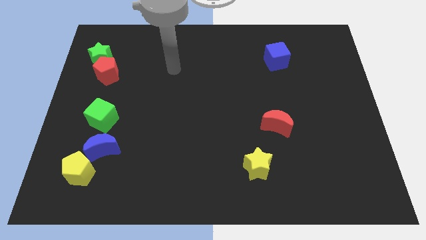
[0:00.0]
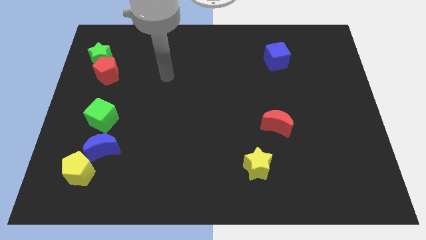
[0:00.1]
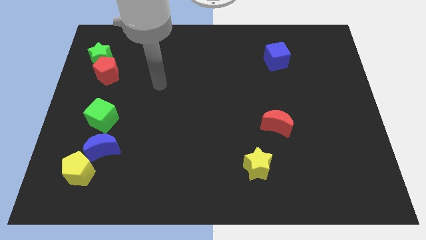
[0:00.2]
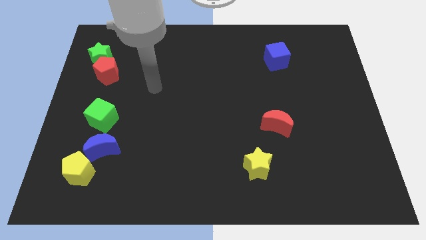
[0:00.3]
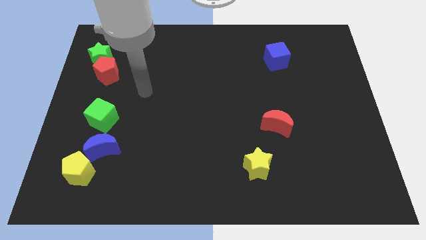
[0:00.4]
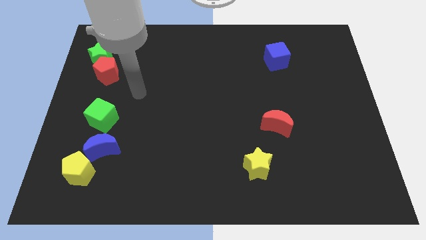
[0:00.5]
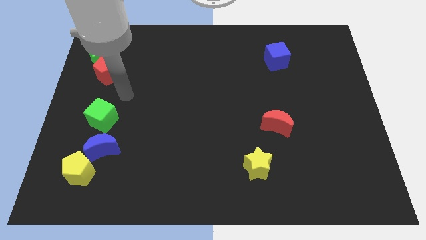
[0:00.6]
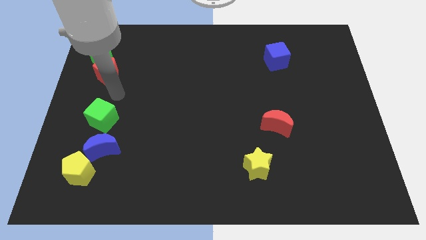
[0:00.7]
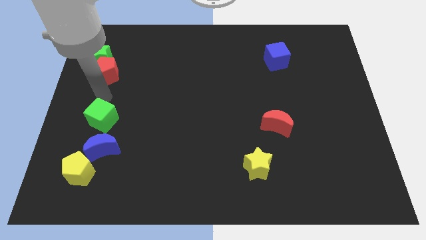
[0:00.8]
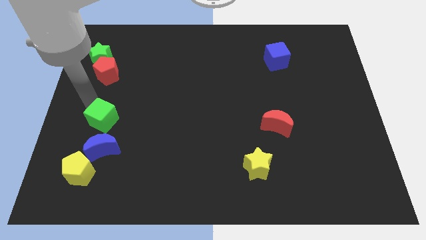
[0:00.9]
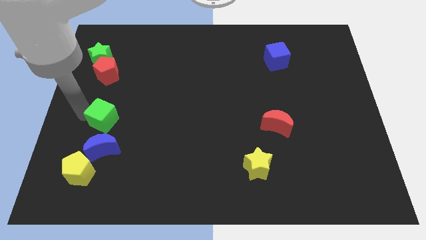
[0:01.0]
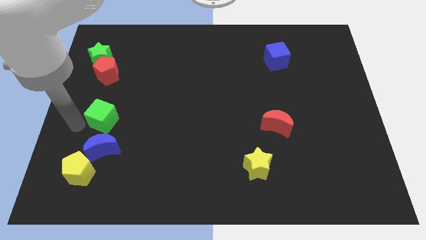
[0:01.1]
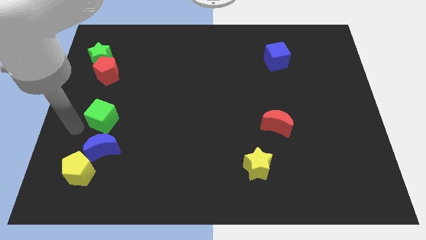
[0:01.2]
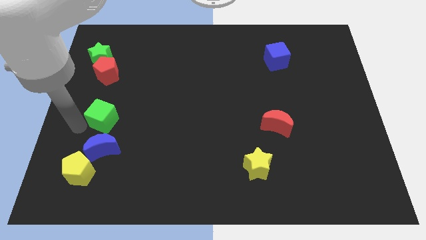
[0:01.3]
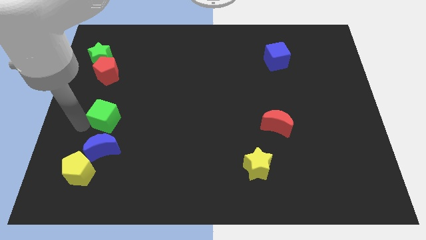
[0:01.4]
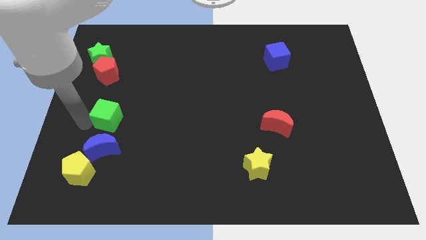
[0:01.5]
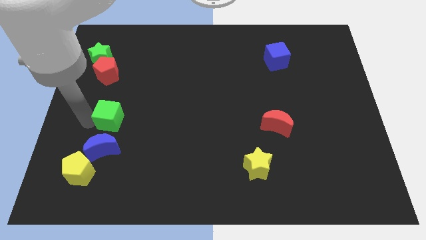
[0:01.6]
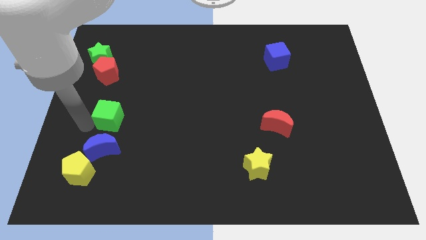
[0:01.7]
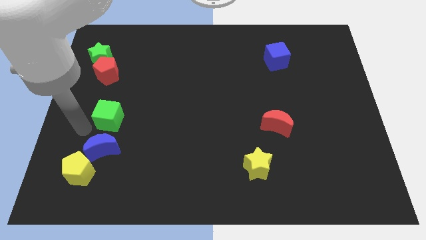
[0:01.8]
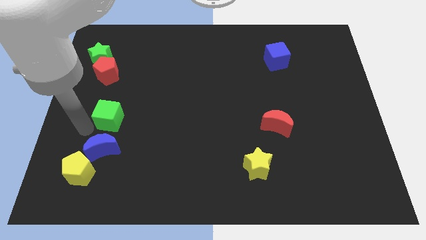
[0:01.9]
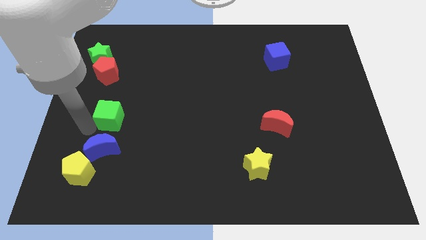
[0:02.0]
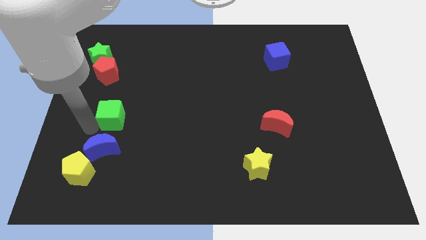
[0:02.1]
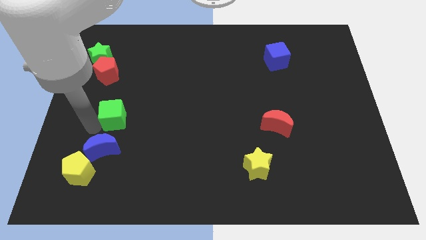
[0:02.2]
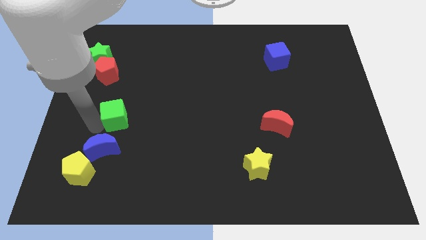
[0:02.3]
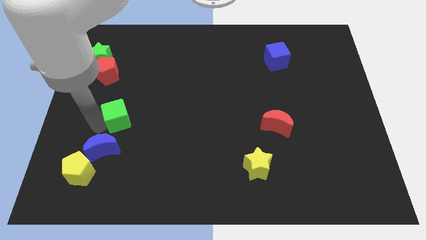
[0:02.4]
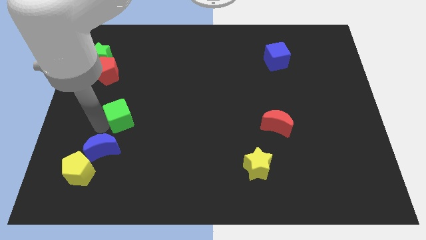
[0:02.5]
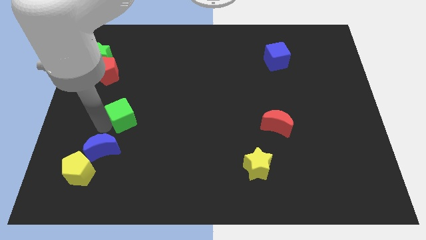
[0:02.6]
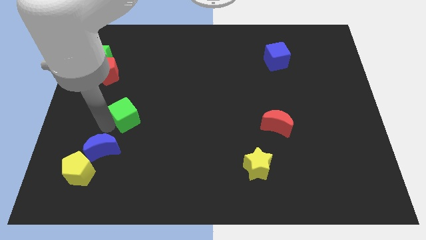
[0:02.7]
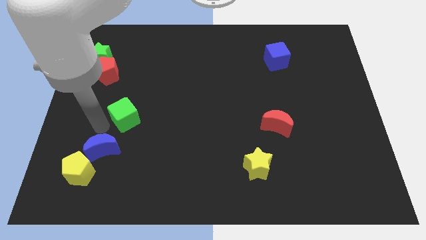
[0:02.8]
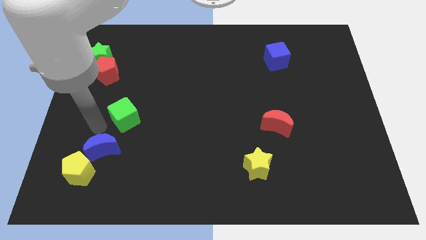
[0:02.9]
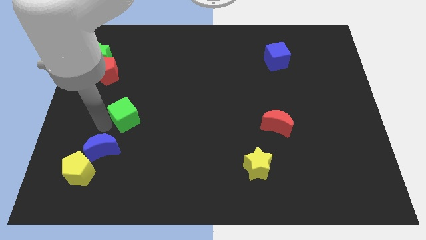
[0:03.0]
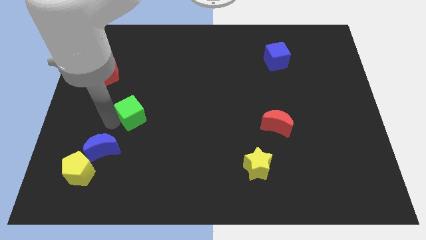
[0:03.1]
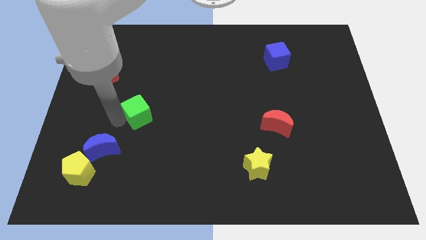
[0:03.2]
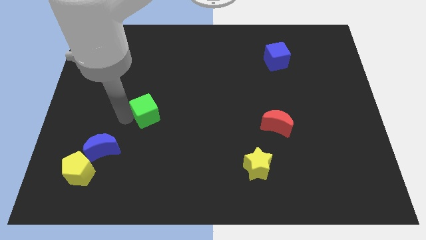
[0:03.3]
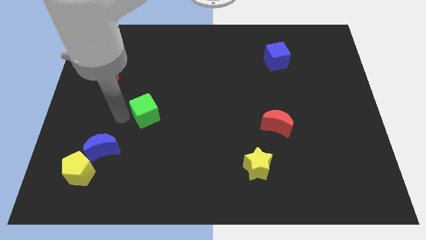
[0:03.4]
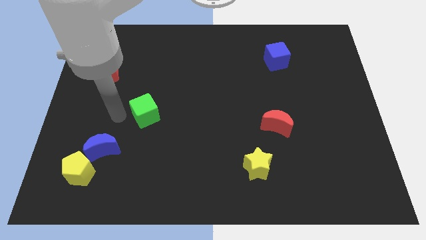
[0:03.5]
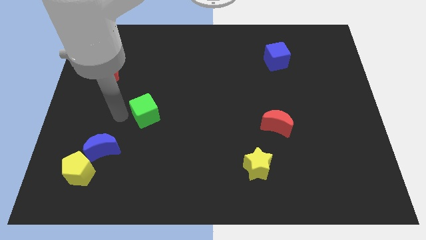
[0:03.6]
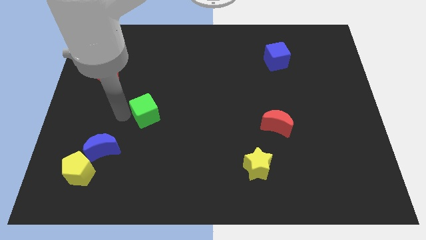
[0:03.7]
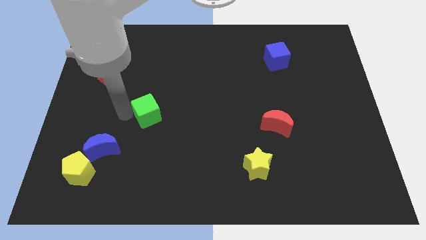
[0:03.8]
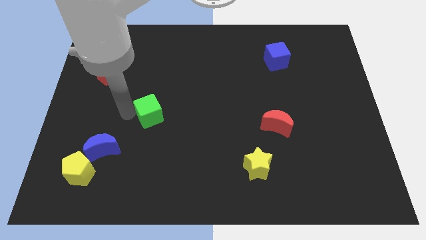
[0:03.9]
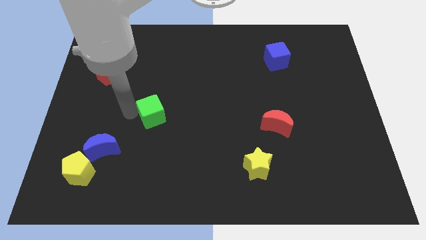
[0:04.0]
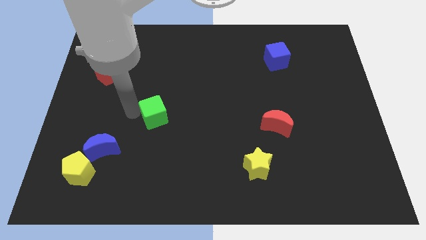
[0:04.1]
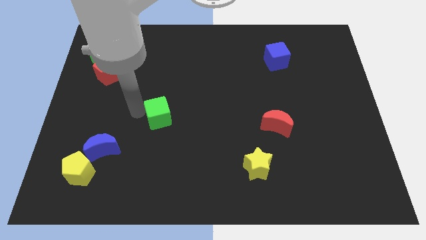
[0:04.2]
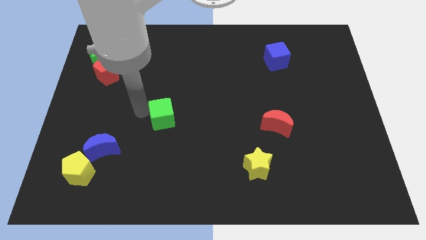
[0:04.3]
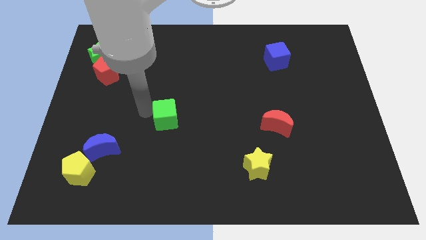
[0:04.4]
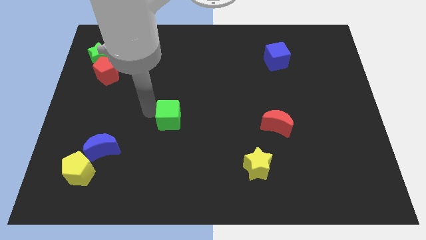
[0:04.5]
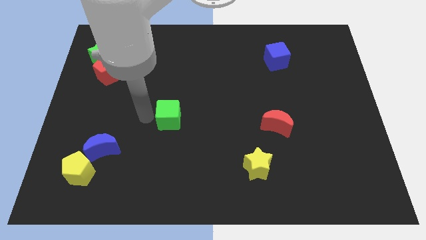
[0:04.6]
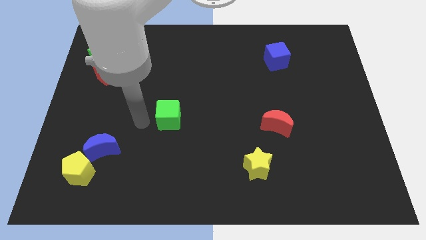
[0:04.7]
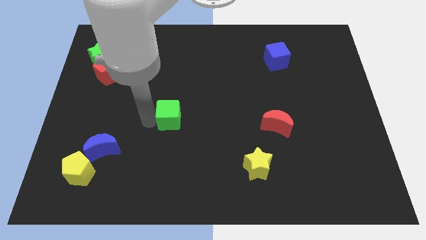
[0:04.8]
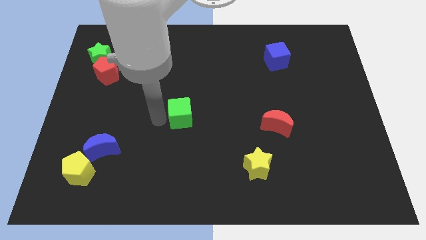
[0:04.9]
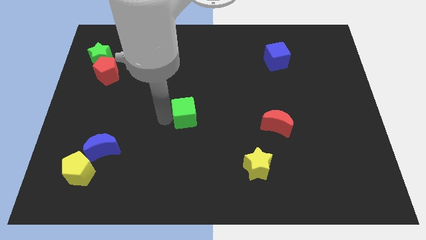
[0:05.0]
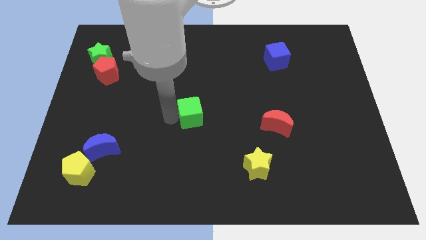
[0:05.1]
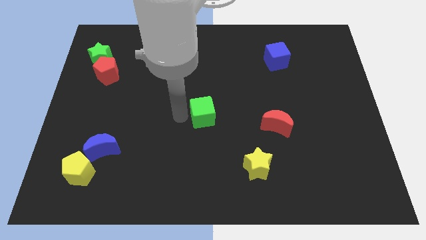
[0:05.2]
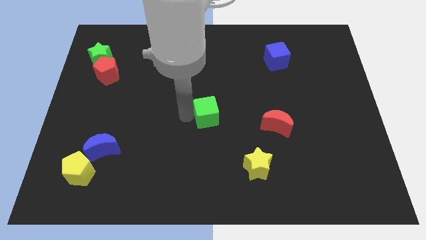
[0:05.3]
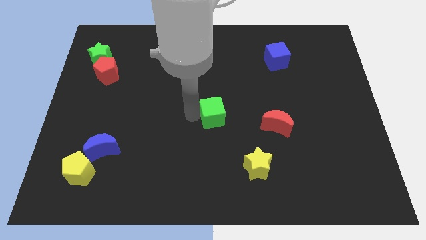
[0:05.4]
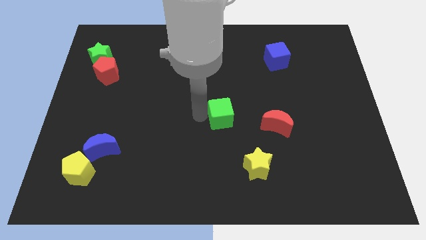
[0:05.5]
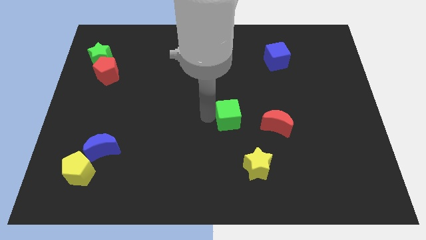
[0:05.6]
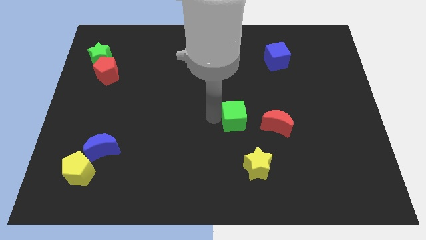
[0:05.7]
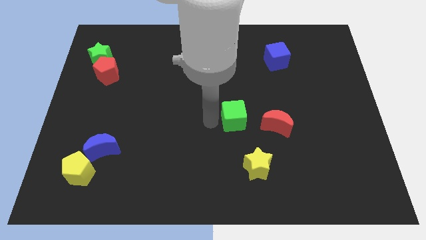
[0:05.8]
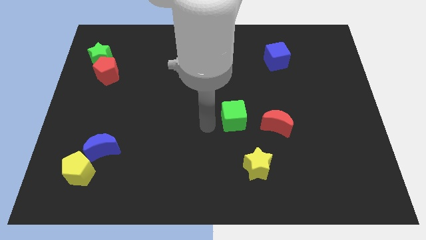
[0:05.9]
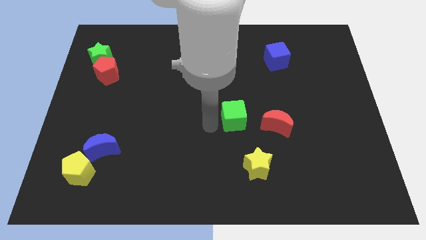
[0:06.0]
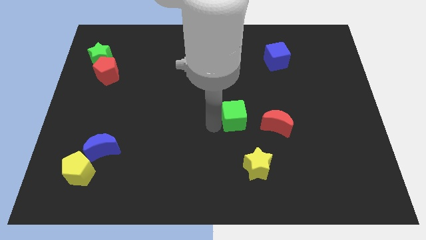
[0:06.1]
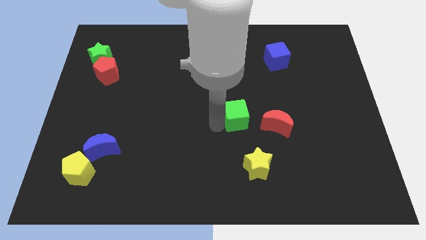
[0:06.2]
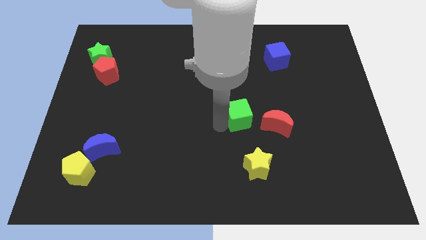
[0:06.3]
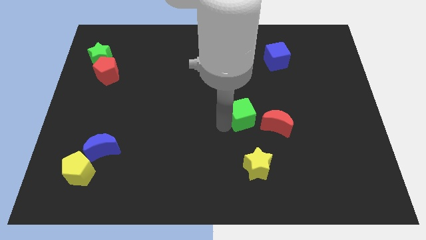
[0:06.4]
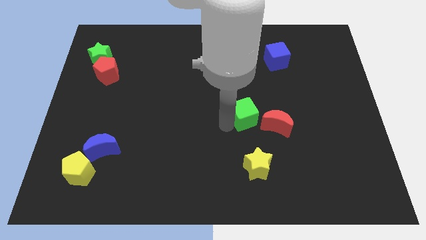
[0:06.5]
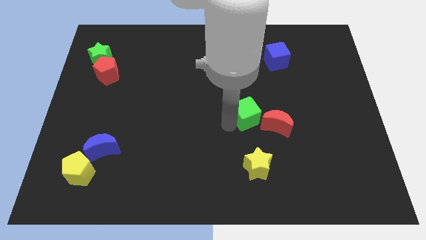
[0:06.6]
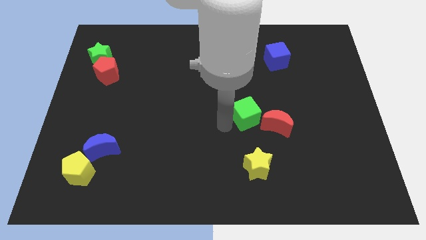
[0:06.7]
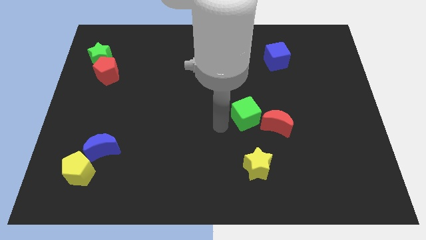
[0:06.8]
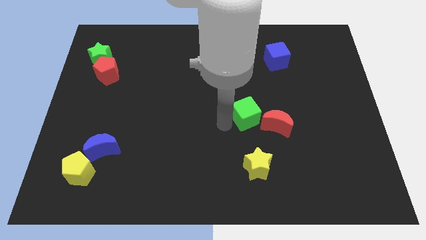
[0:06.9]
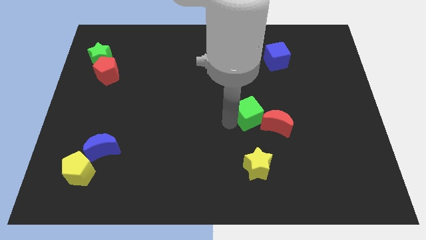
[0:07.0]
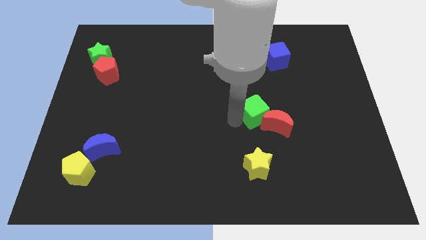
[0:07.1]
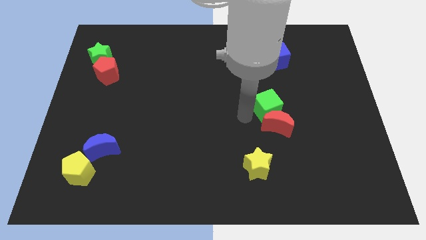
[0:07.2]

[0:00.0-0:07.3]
push the green cube to the top right of the red moon
